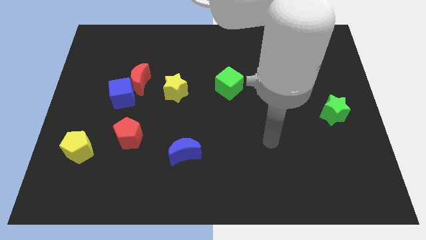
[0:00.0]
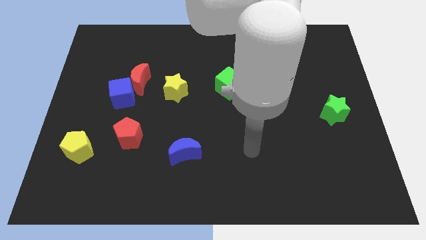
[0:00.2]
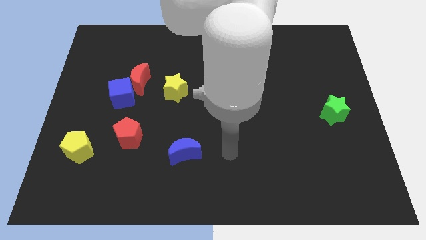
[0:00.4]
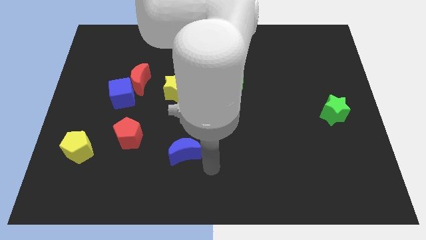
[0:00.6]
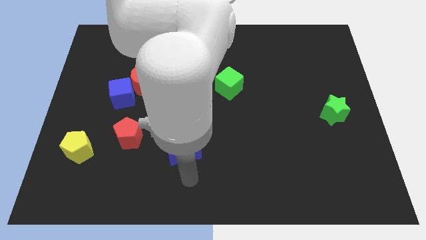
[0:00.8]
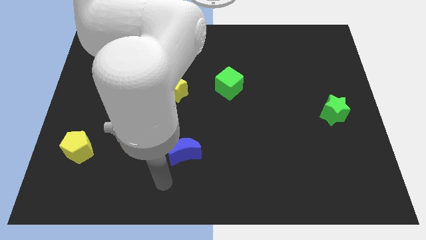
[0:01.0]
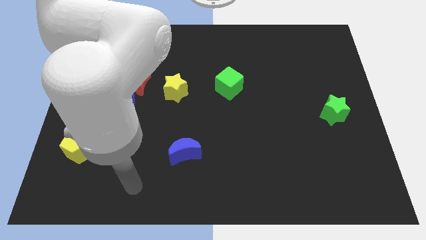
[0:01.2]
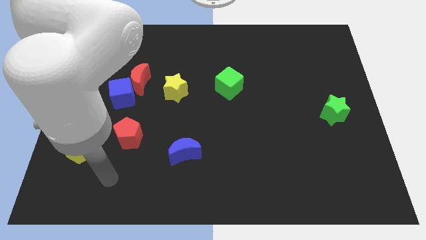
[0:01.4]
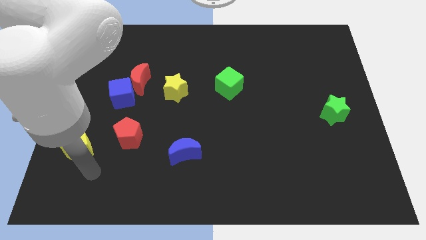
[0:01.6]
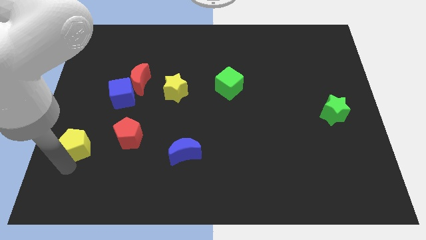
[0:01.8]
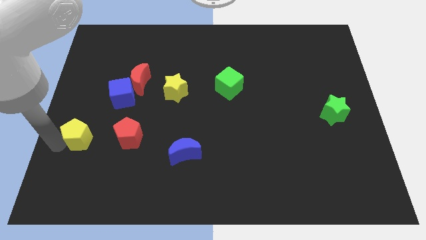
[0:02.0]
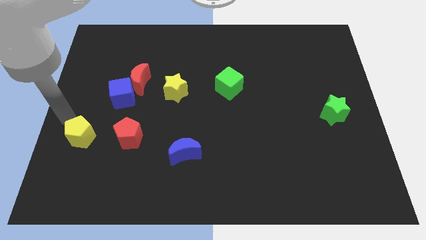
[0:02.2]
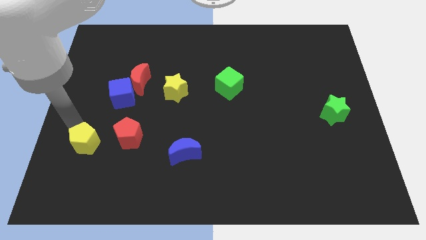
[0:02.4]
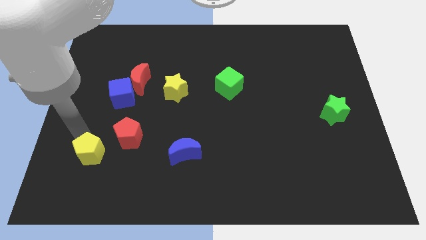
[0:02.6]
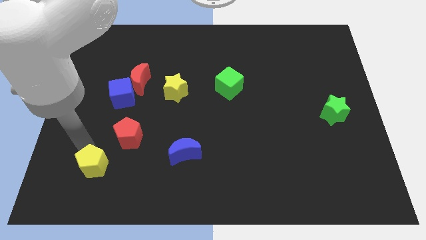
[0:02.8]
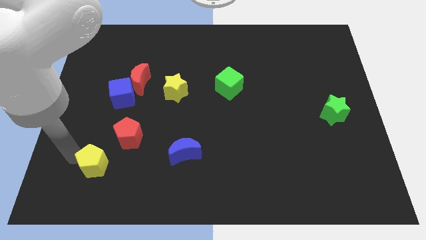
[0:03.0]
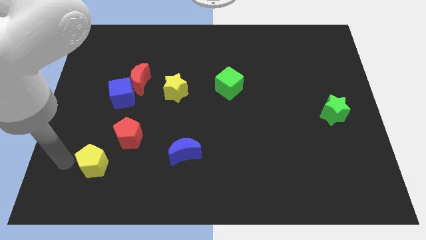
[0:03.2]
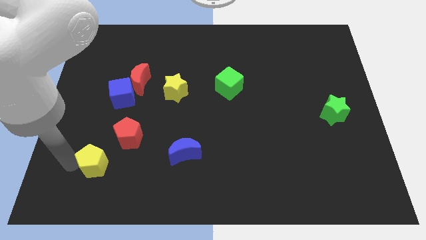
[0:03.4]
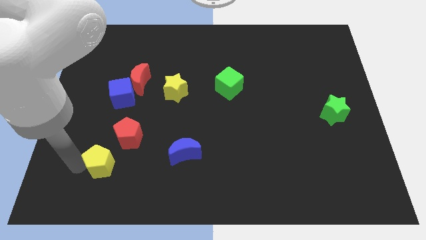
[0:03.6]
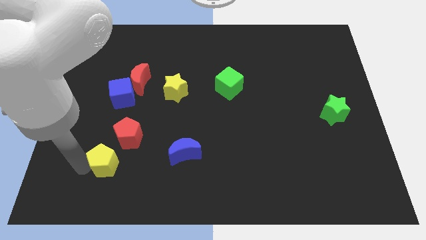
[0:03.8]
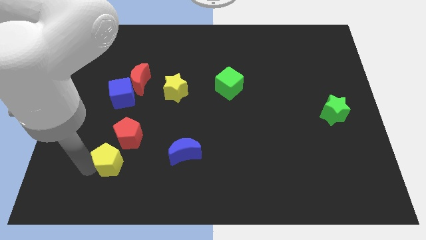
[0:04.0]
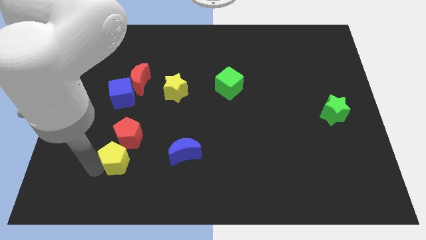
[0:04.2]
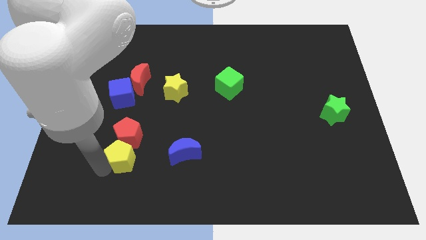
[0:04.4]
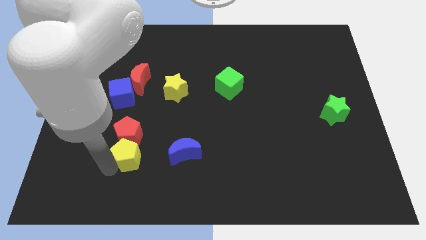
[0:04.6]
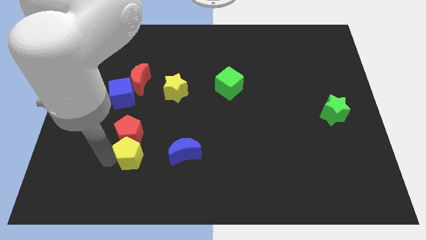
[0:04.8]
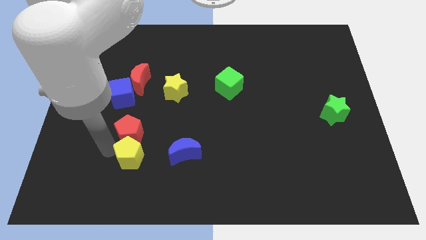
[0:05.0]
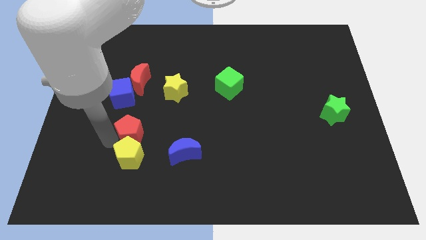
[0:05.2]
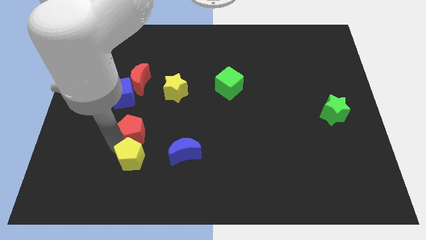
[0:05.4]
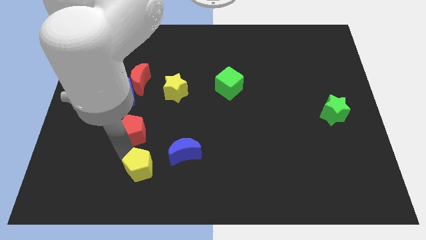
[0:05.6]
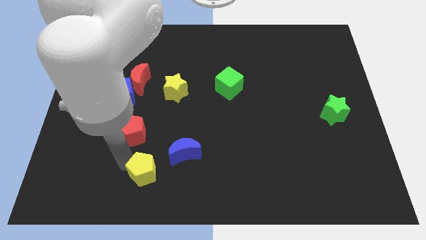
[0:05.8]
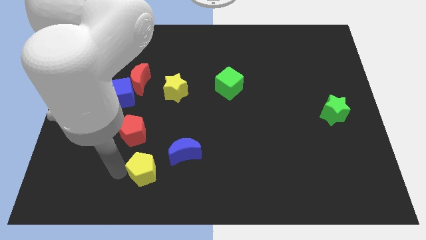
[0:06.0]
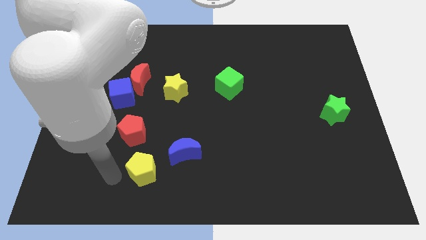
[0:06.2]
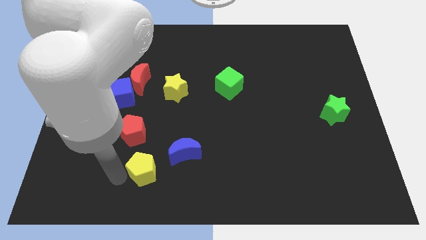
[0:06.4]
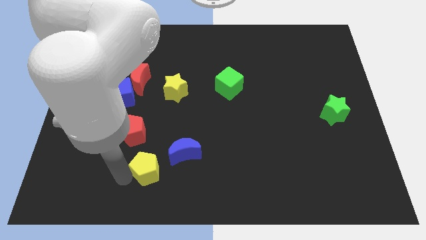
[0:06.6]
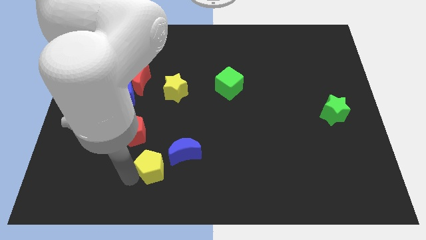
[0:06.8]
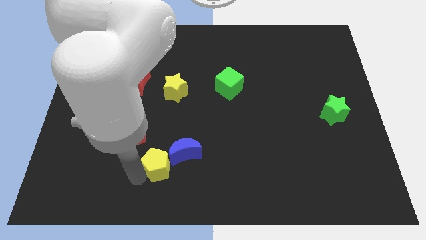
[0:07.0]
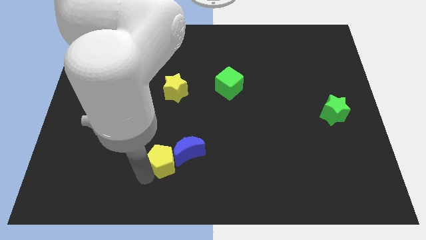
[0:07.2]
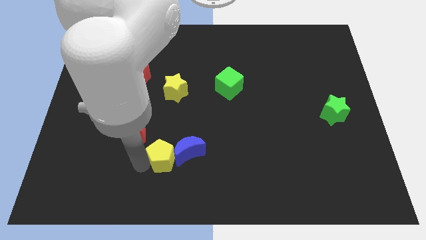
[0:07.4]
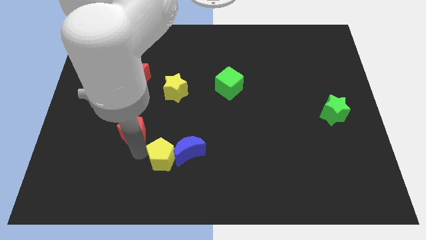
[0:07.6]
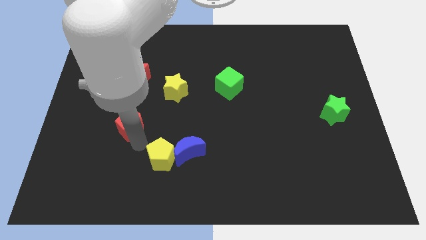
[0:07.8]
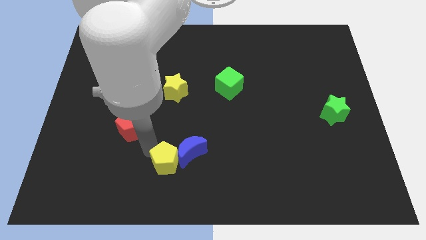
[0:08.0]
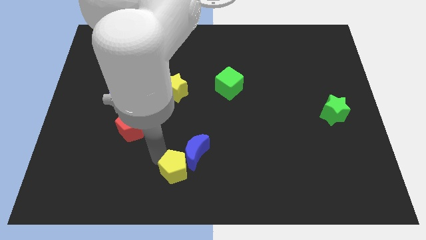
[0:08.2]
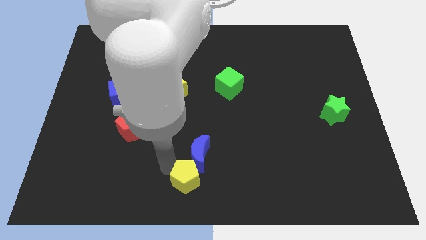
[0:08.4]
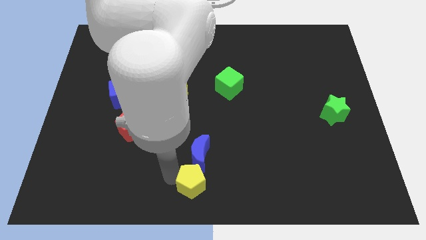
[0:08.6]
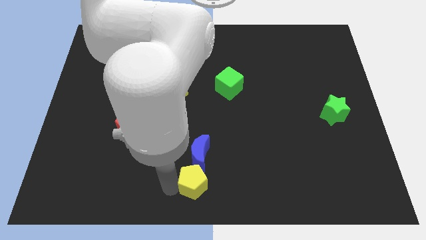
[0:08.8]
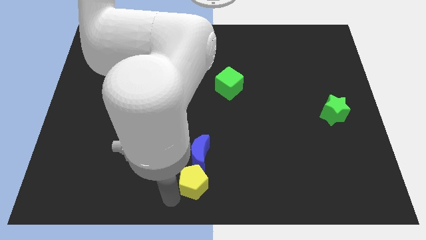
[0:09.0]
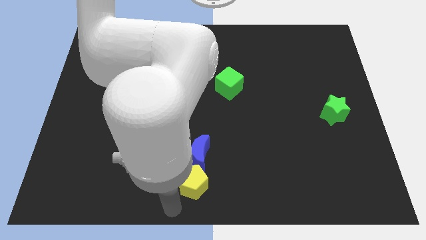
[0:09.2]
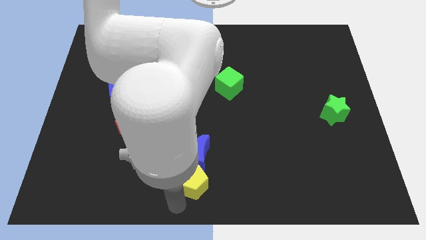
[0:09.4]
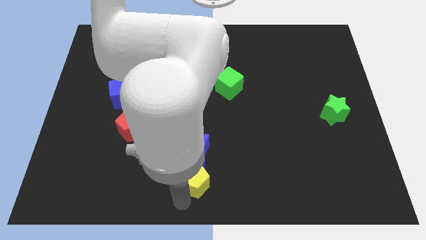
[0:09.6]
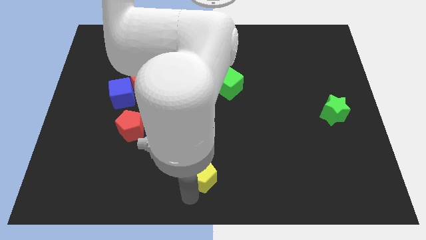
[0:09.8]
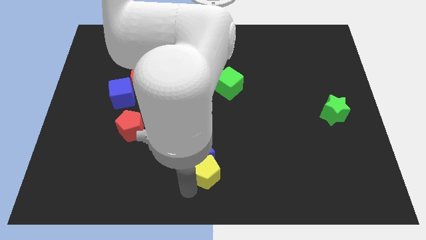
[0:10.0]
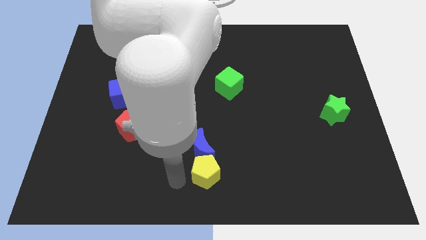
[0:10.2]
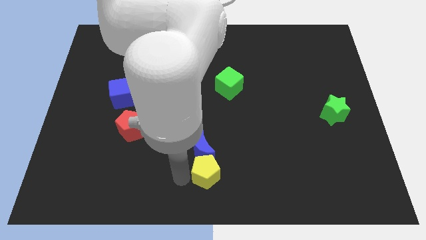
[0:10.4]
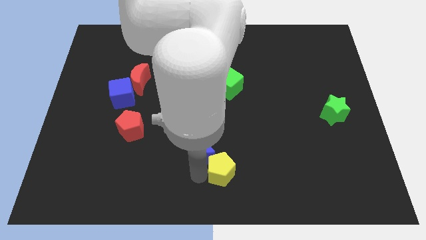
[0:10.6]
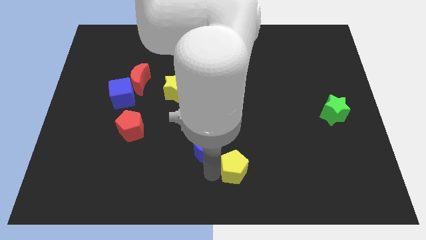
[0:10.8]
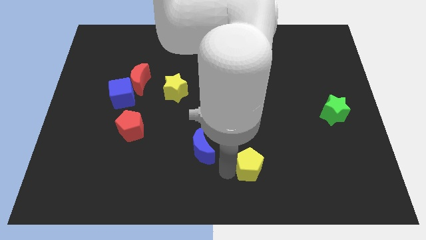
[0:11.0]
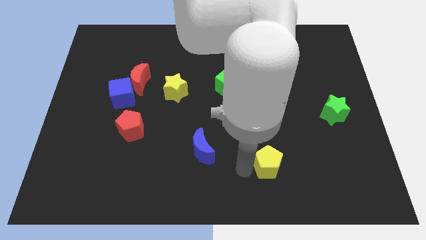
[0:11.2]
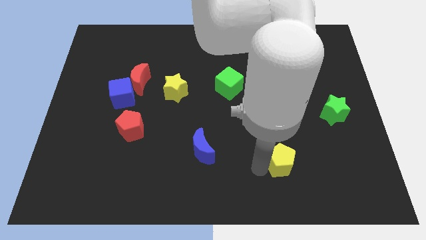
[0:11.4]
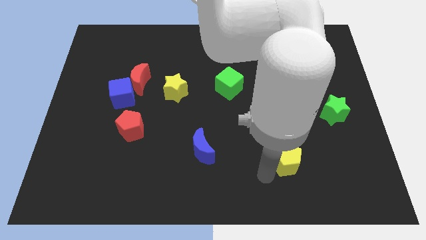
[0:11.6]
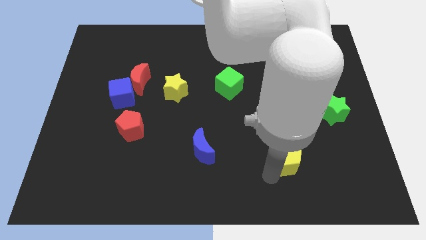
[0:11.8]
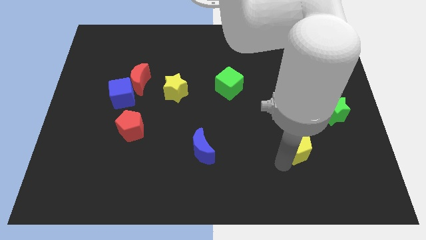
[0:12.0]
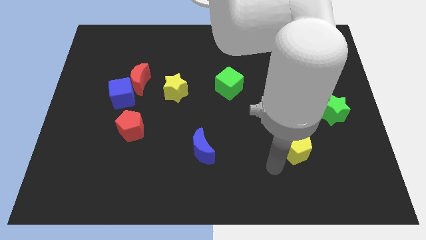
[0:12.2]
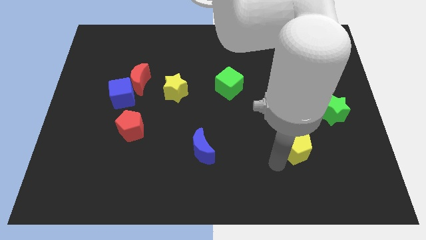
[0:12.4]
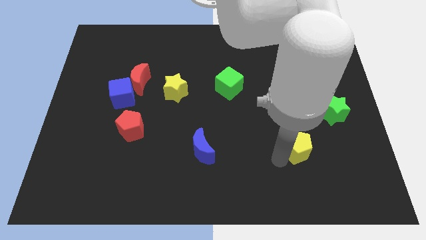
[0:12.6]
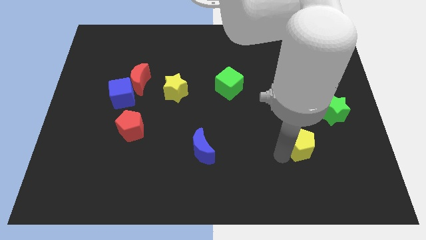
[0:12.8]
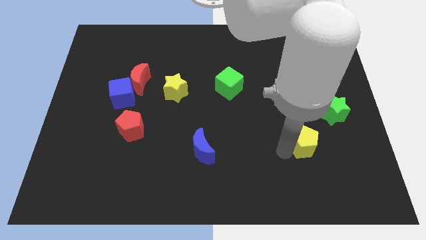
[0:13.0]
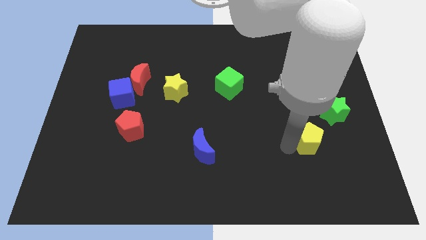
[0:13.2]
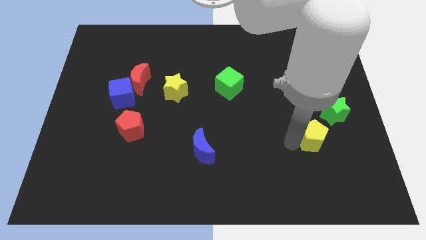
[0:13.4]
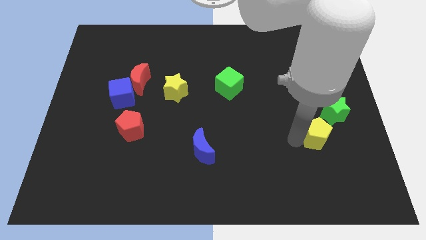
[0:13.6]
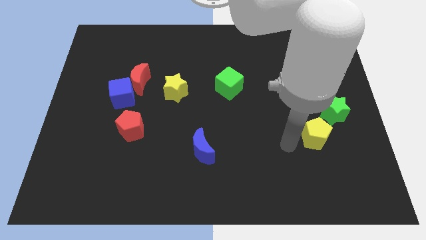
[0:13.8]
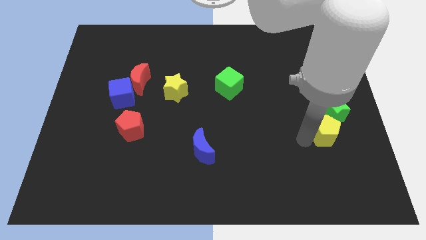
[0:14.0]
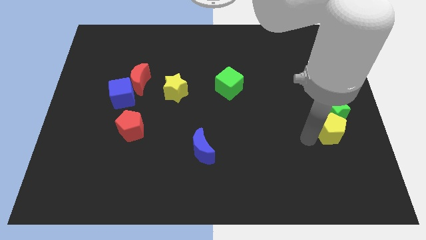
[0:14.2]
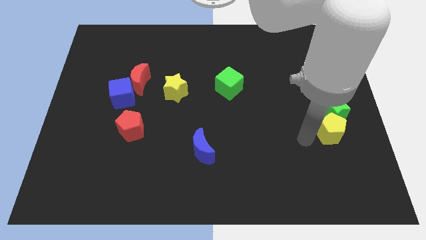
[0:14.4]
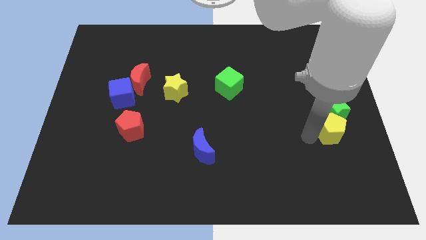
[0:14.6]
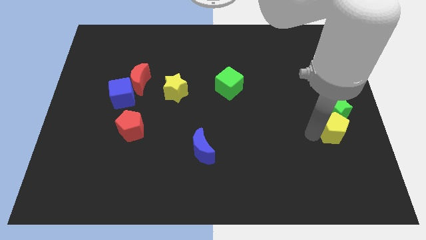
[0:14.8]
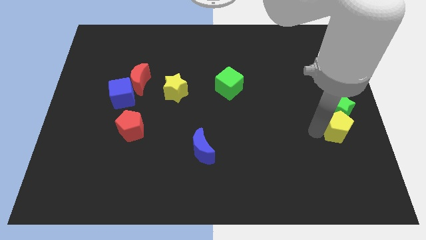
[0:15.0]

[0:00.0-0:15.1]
move the yellow pentagon to the right side
